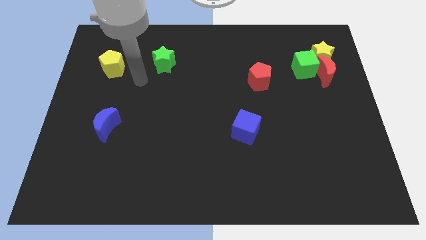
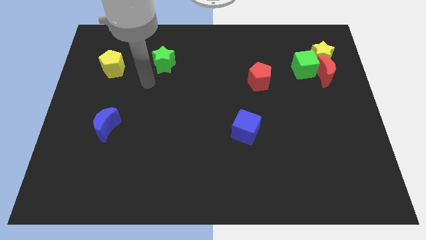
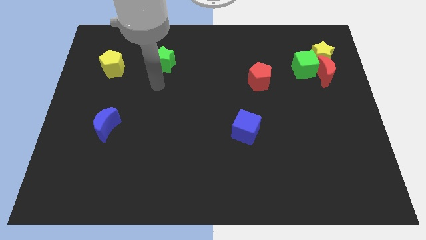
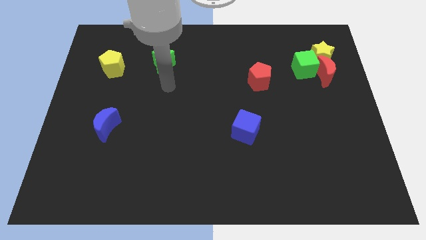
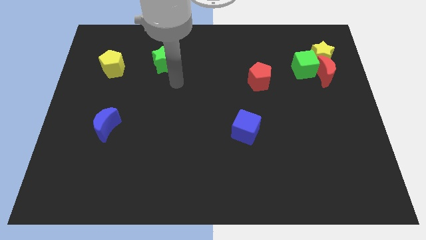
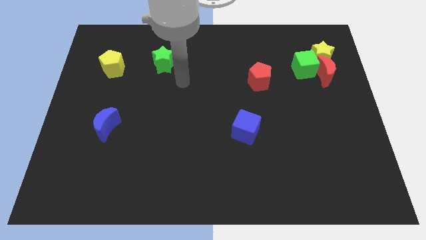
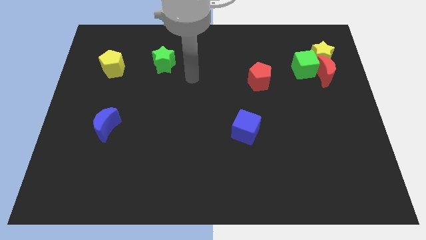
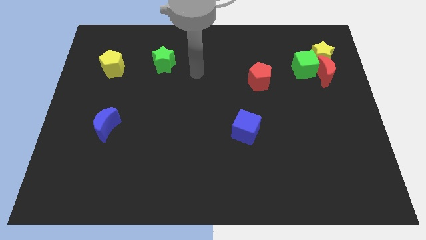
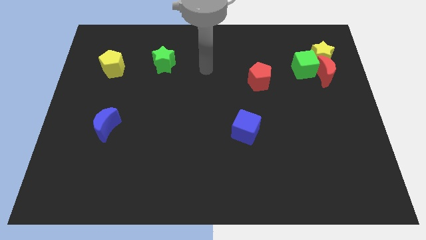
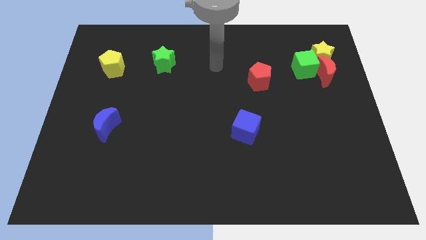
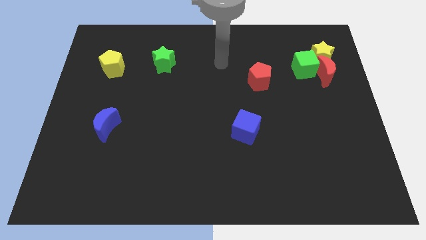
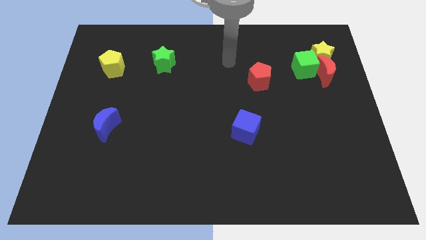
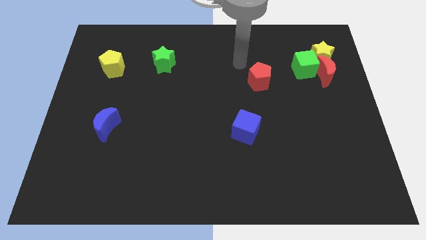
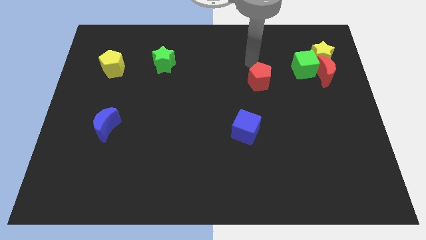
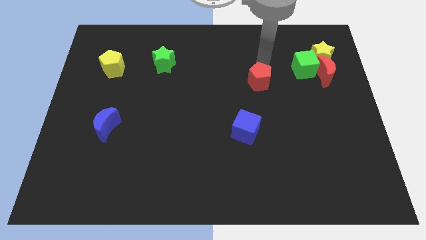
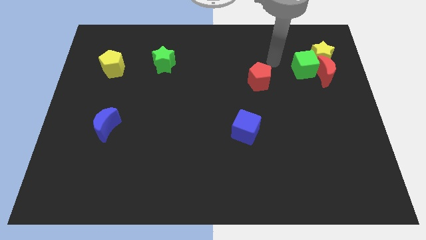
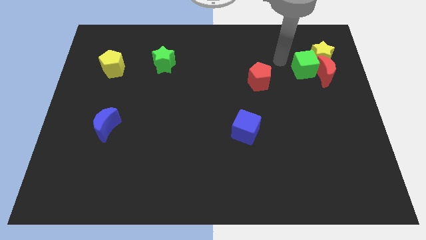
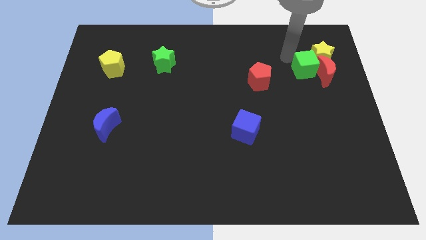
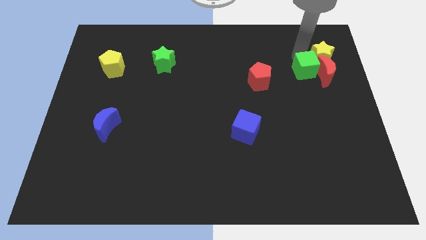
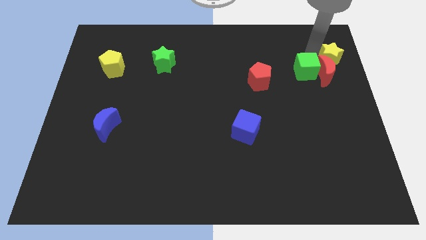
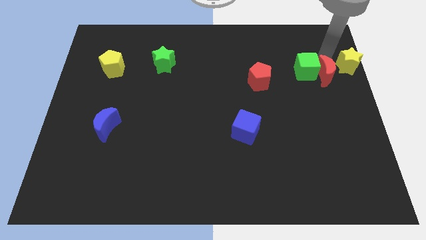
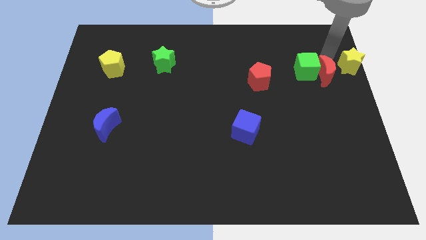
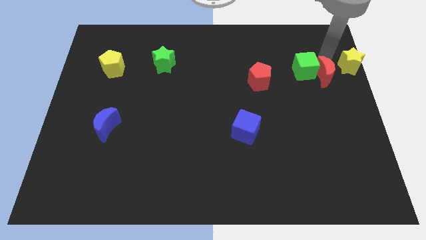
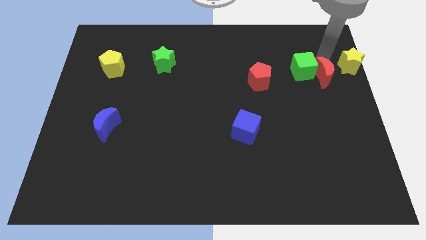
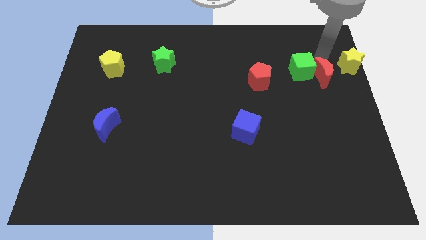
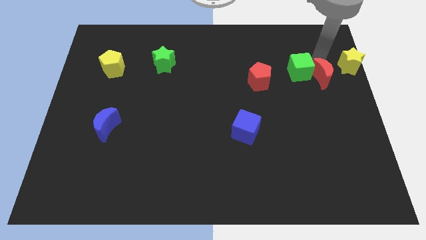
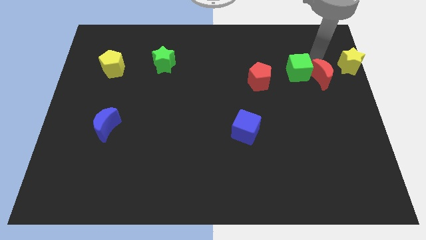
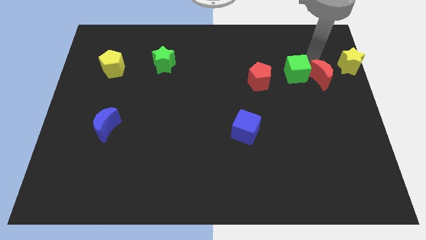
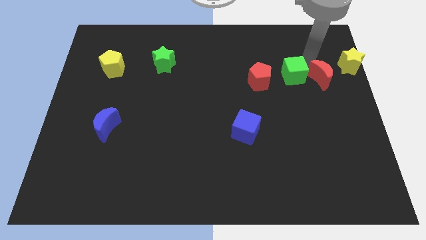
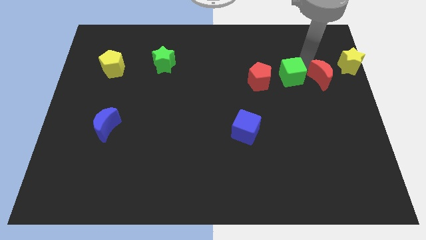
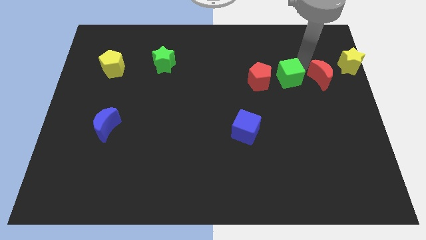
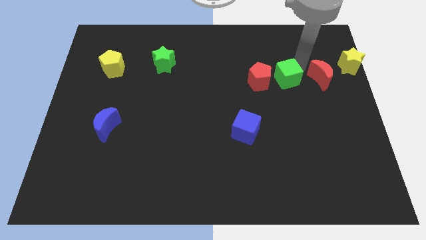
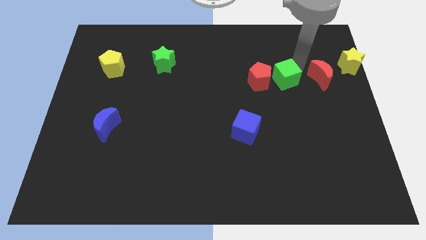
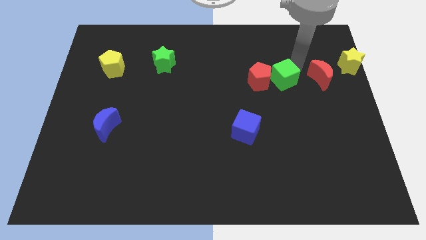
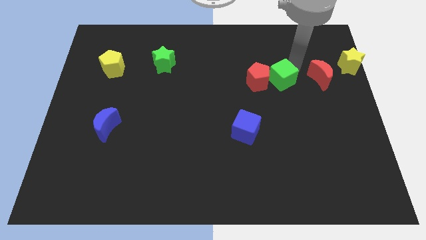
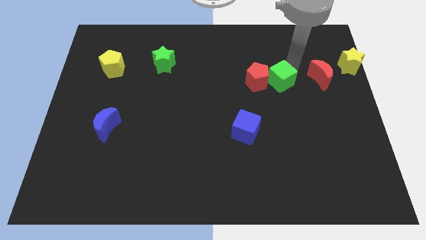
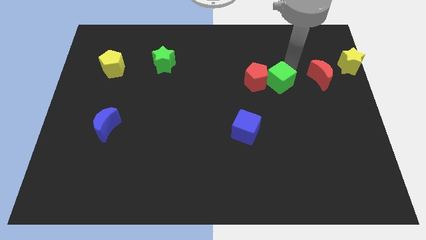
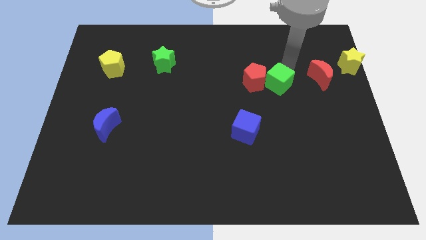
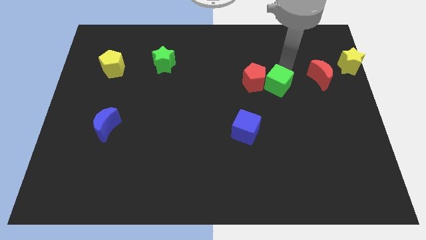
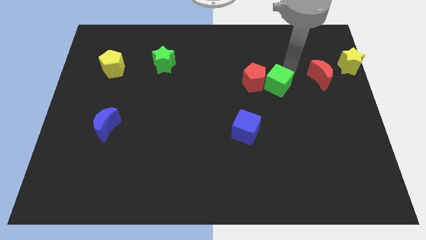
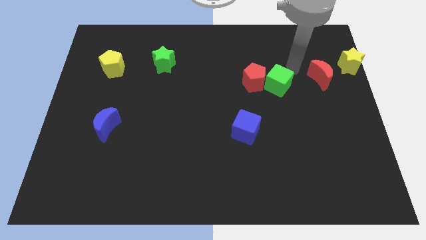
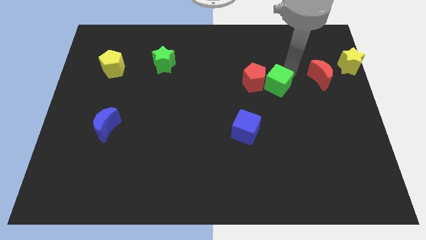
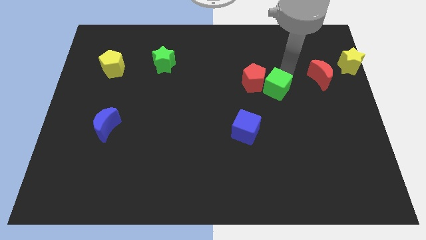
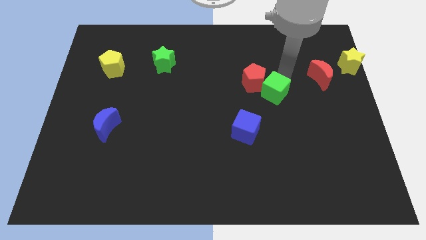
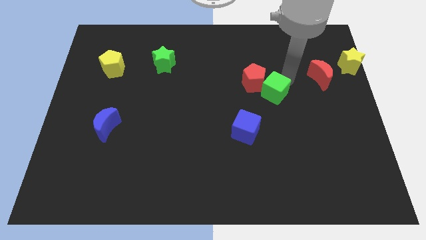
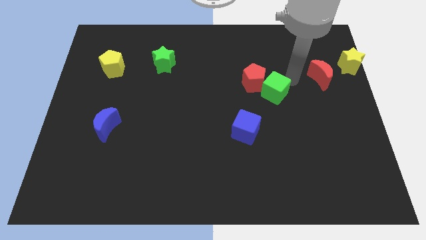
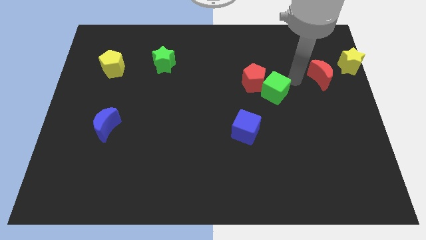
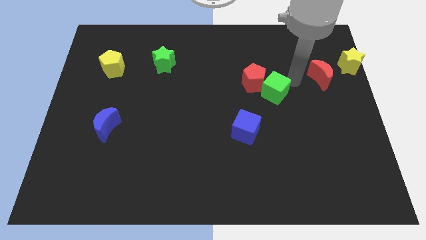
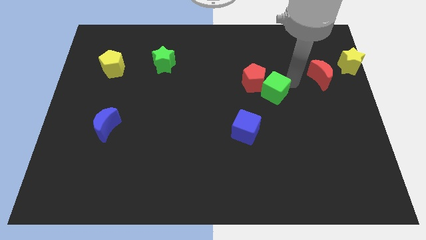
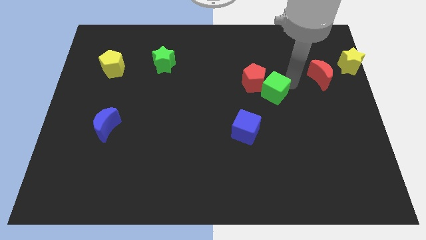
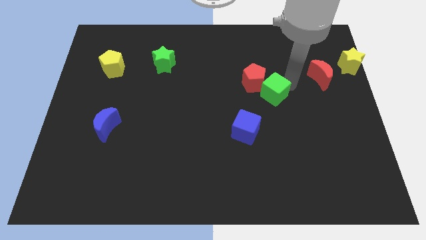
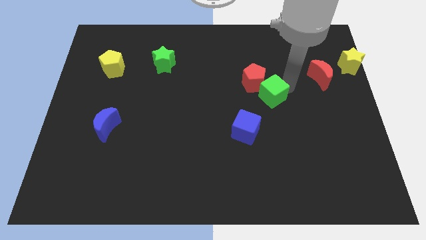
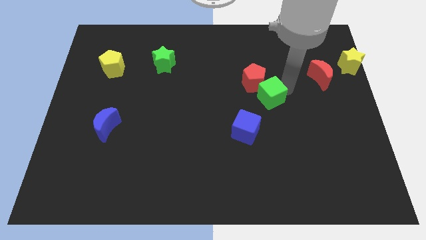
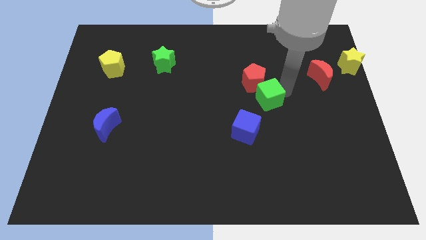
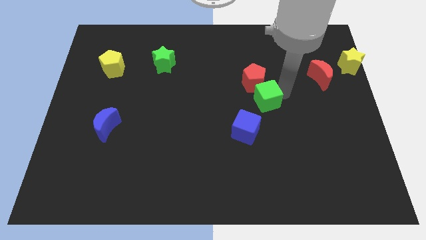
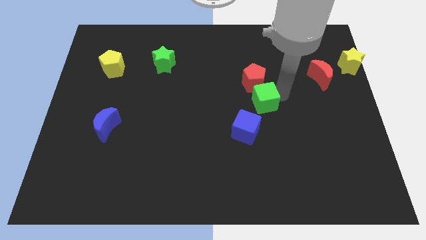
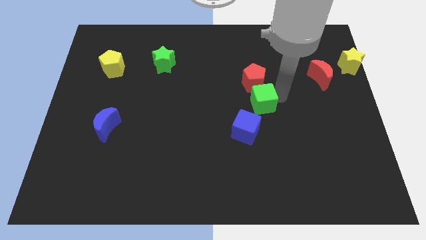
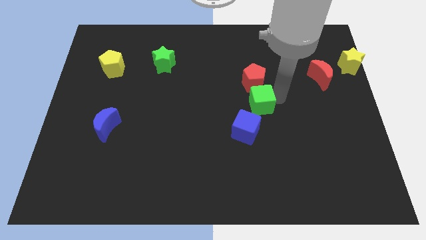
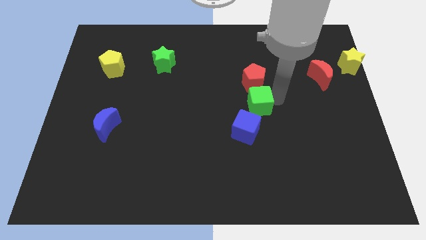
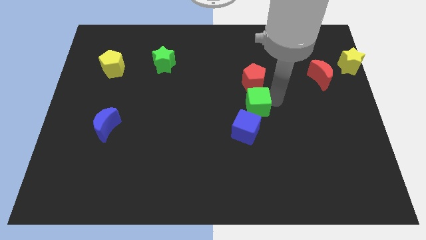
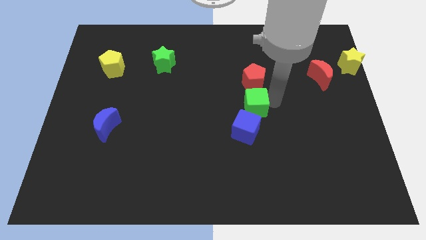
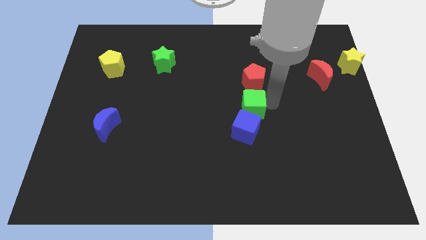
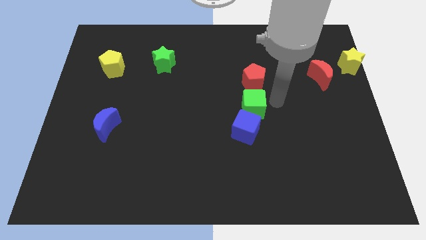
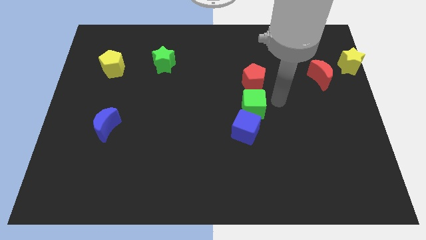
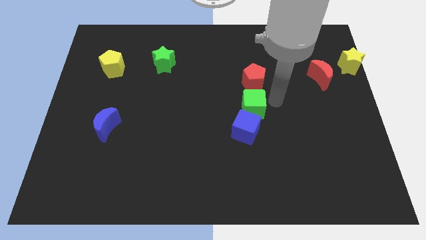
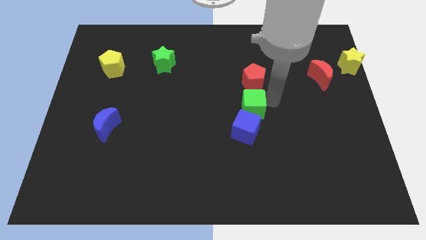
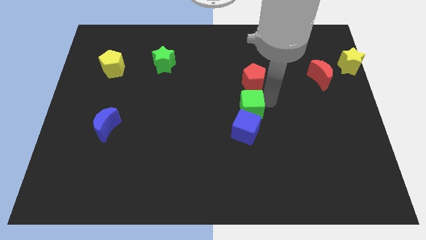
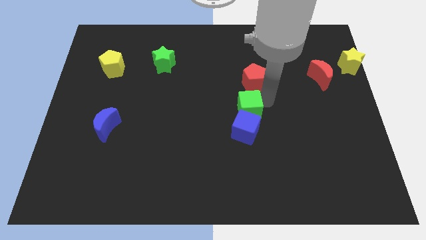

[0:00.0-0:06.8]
move the green cube diagonally downwards and left

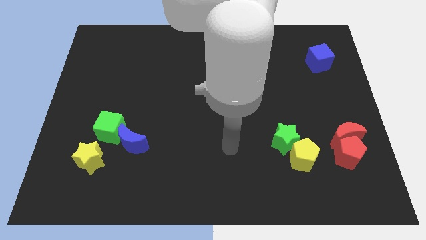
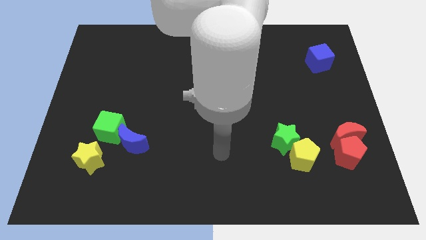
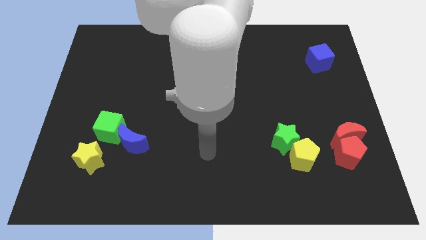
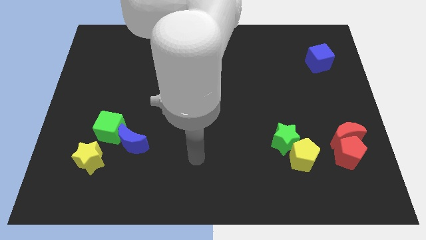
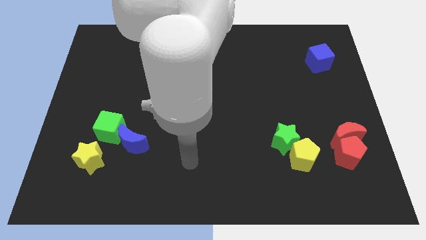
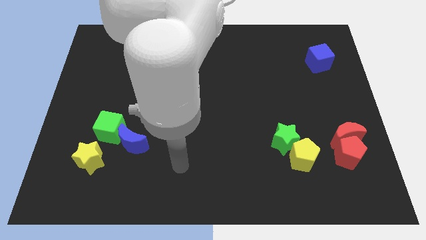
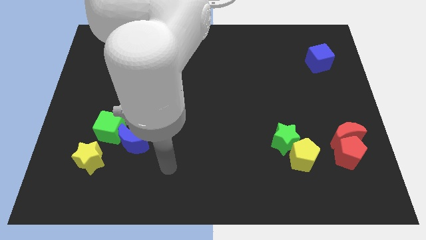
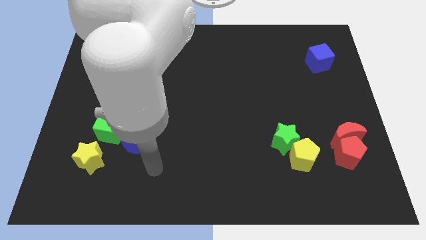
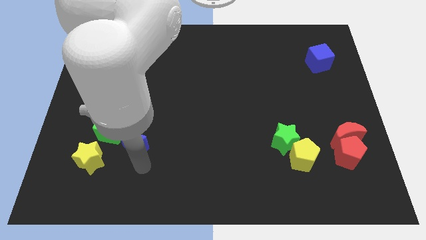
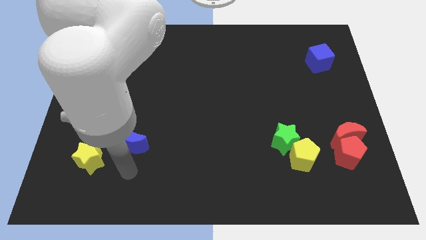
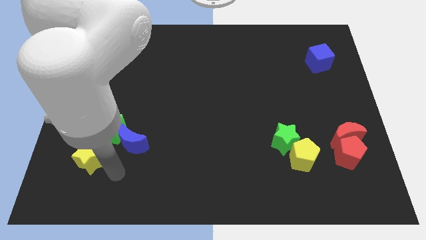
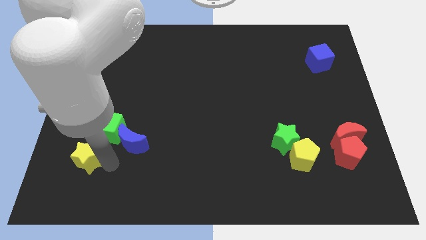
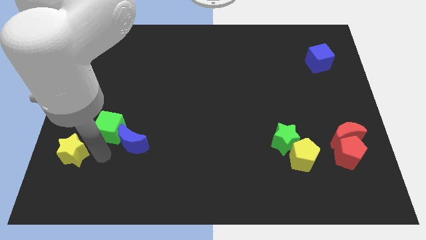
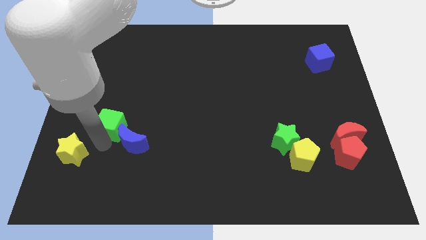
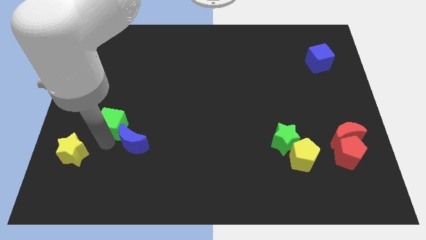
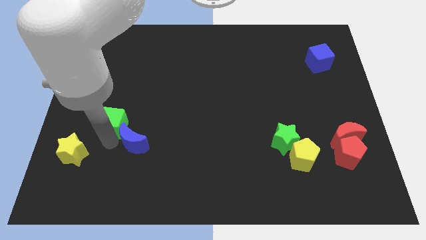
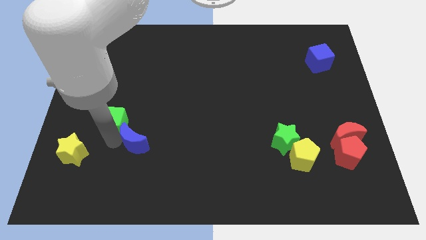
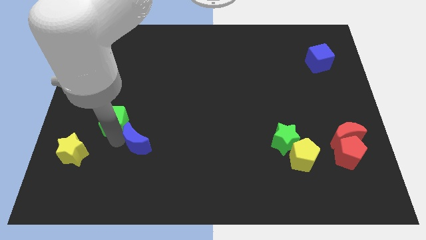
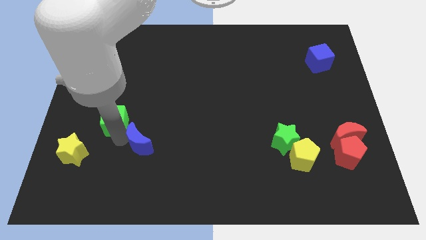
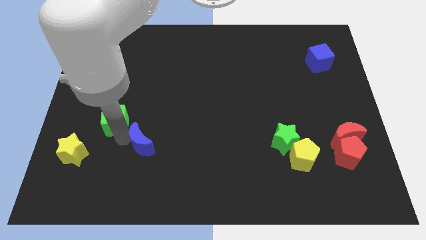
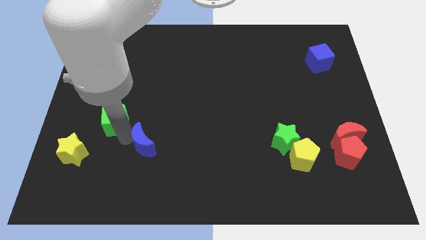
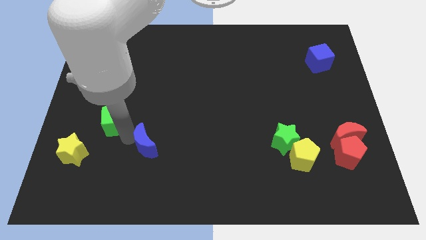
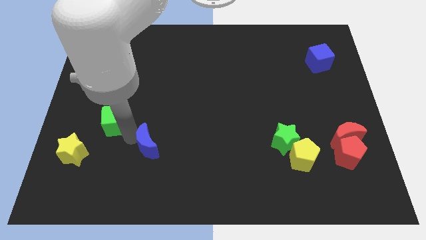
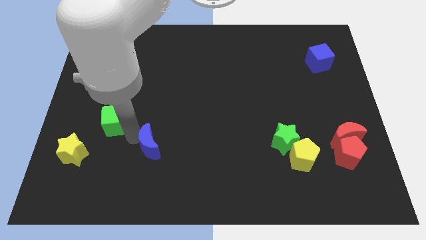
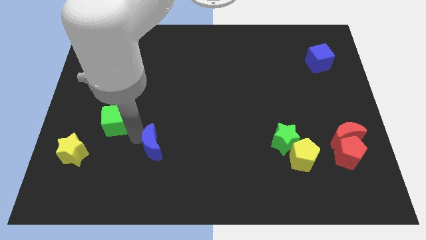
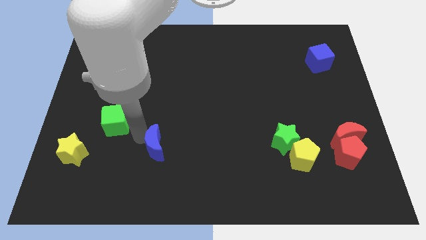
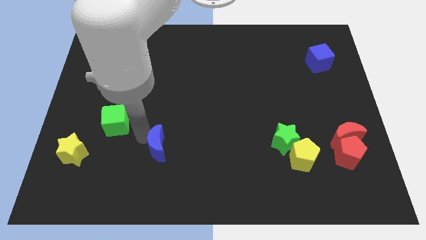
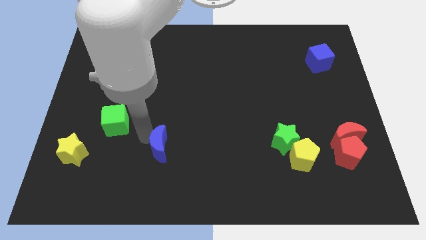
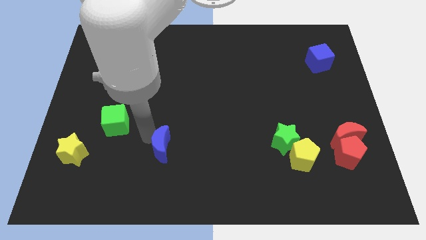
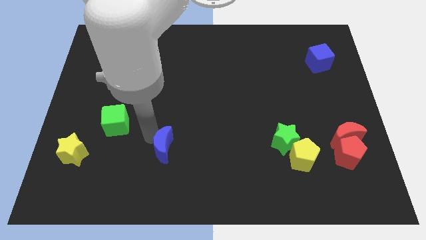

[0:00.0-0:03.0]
slide the blue moon somewhat right
